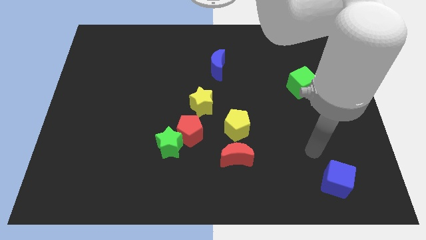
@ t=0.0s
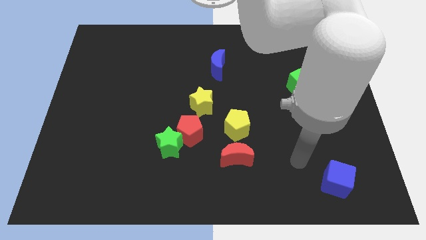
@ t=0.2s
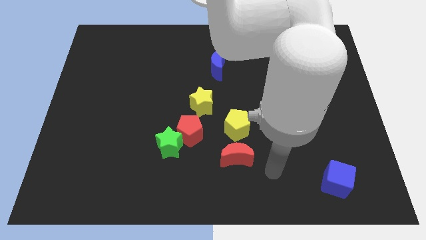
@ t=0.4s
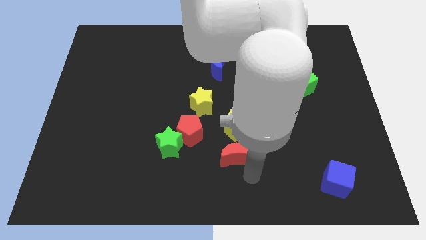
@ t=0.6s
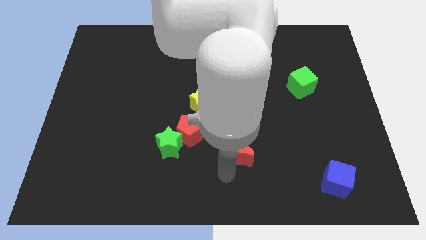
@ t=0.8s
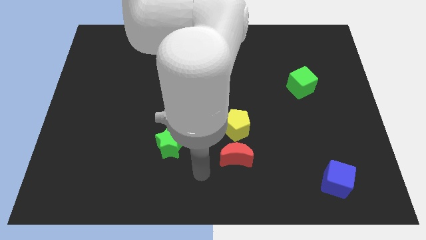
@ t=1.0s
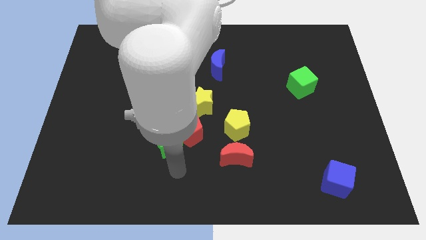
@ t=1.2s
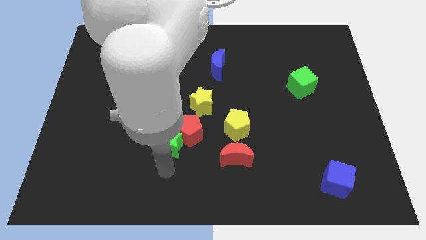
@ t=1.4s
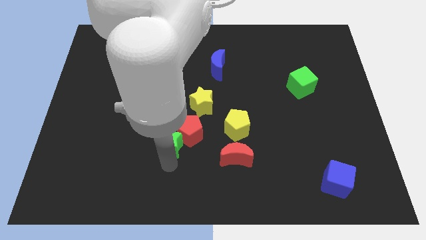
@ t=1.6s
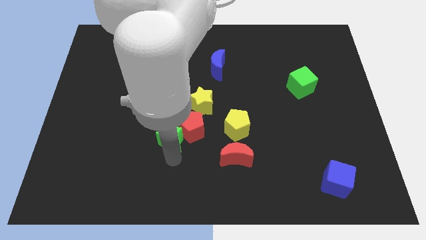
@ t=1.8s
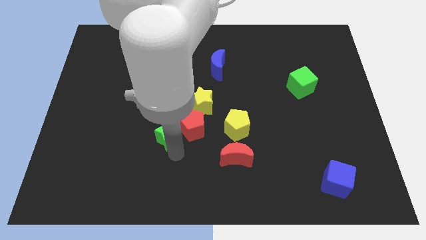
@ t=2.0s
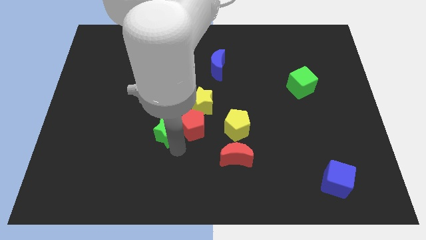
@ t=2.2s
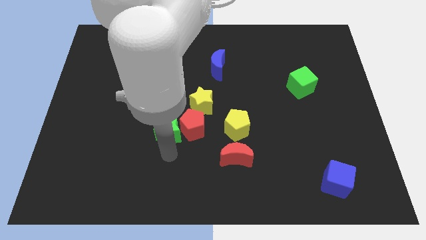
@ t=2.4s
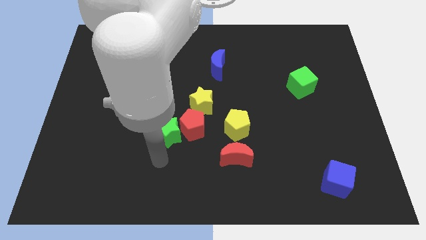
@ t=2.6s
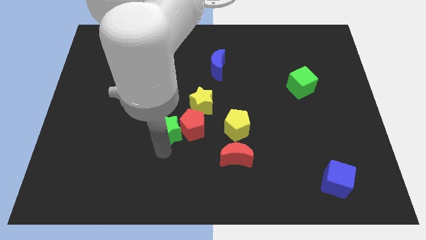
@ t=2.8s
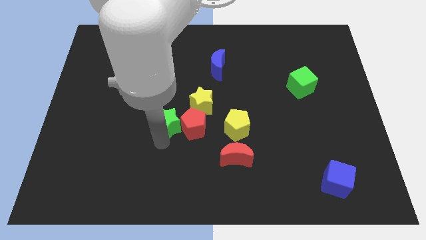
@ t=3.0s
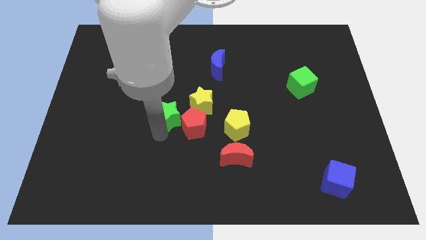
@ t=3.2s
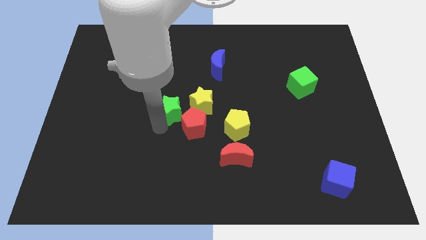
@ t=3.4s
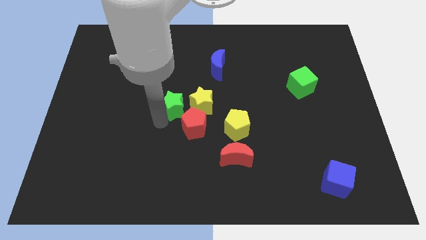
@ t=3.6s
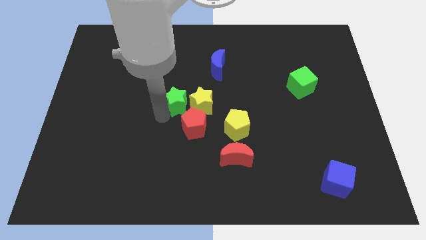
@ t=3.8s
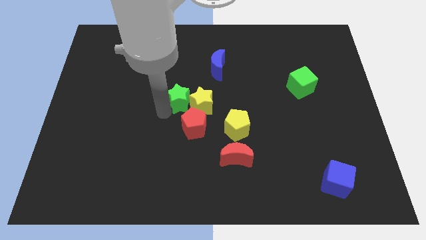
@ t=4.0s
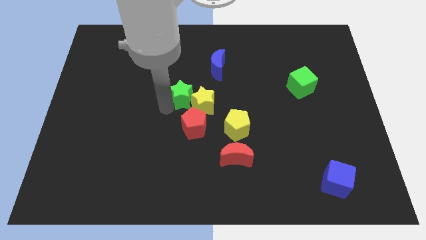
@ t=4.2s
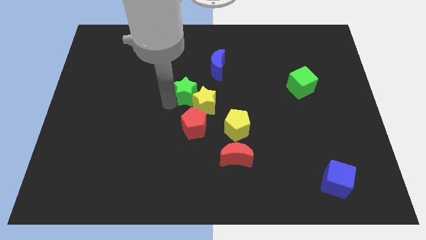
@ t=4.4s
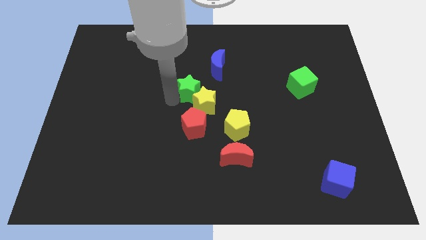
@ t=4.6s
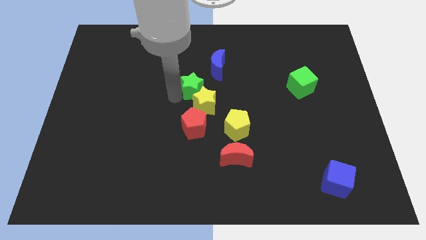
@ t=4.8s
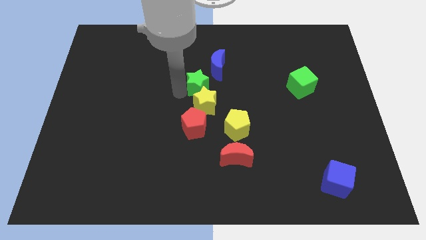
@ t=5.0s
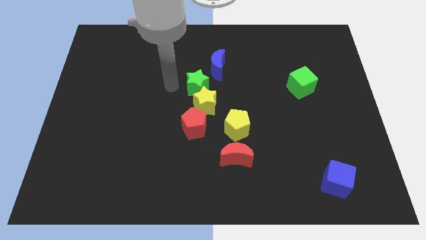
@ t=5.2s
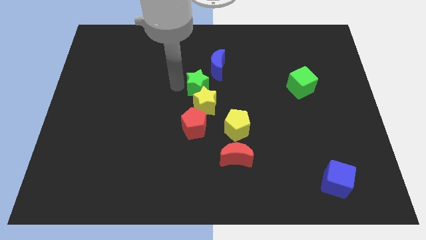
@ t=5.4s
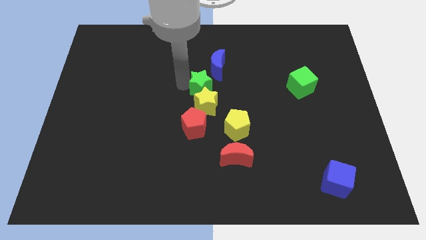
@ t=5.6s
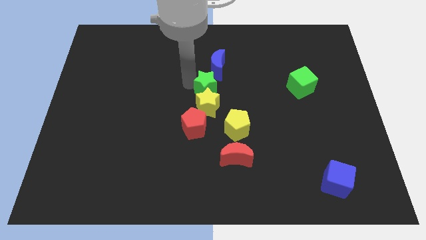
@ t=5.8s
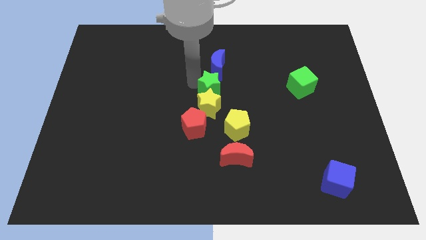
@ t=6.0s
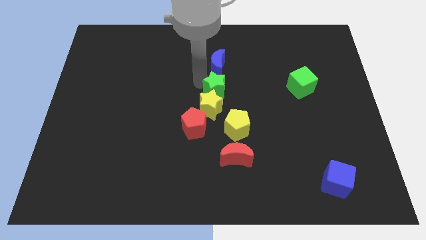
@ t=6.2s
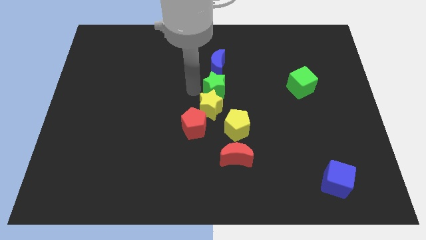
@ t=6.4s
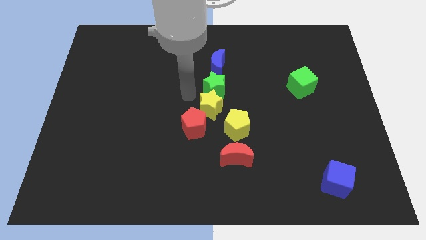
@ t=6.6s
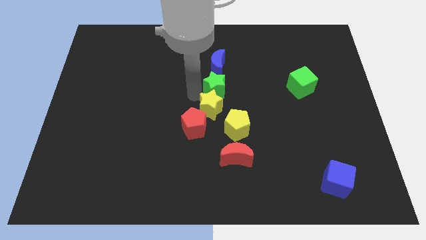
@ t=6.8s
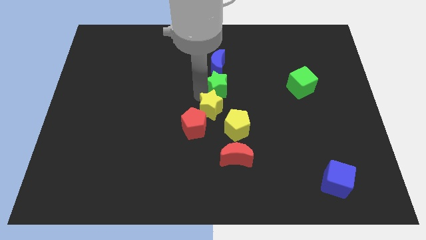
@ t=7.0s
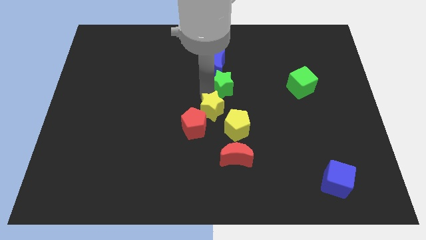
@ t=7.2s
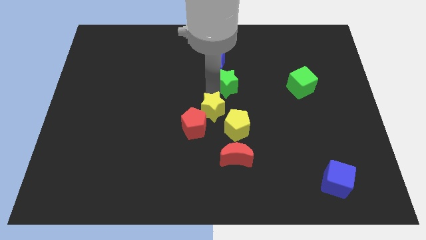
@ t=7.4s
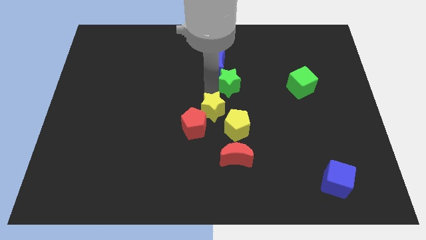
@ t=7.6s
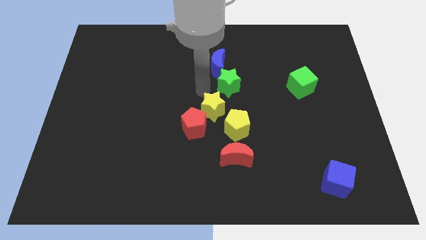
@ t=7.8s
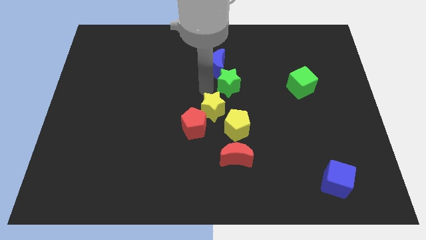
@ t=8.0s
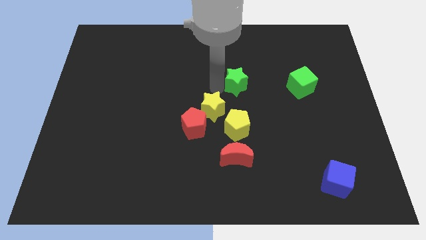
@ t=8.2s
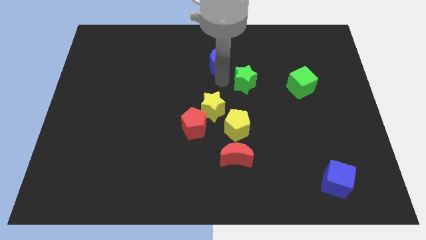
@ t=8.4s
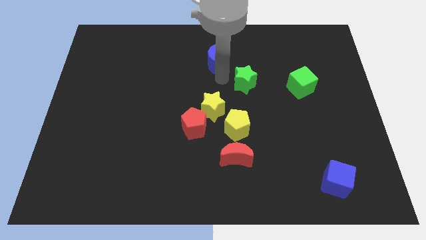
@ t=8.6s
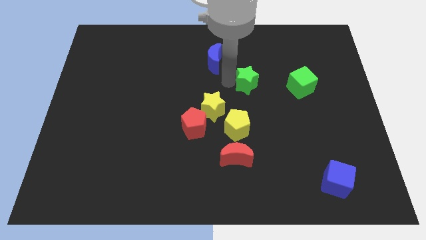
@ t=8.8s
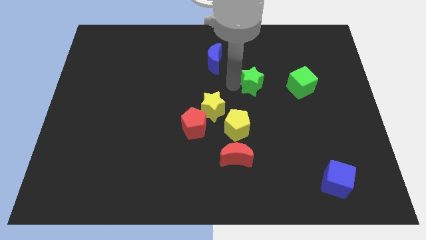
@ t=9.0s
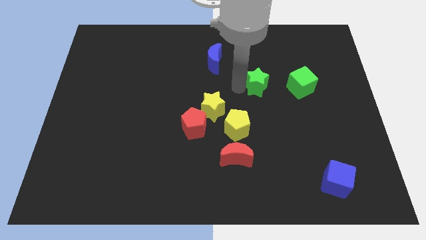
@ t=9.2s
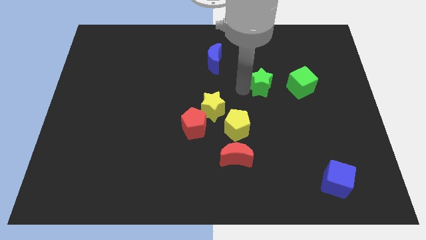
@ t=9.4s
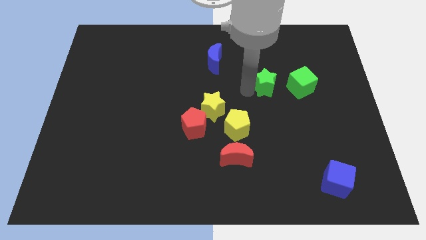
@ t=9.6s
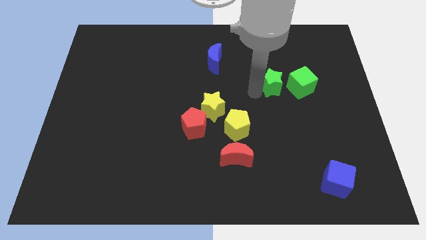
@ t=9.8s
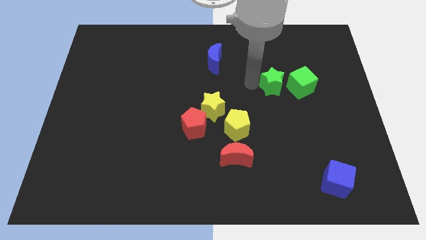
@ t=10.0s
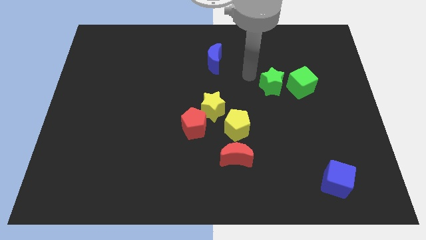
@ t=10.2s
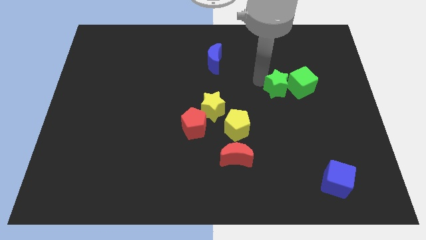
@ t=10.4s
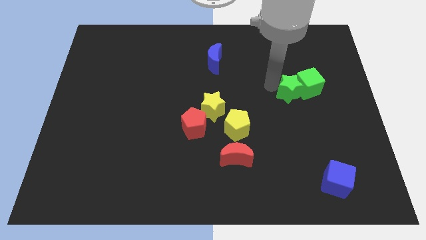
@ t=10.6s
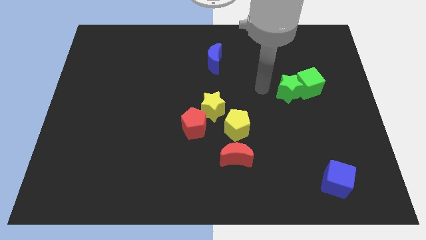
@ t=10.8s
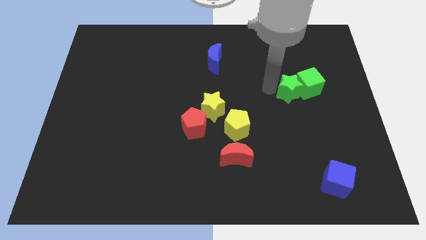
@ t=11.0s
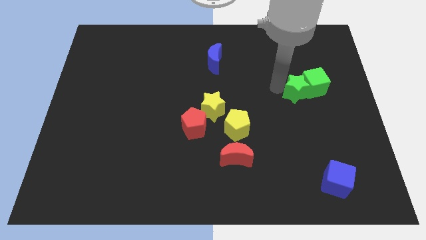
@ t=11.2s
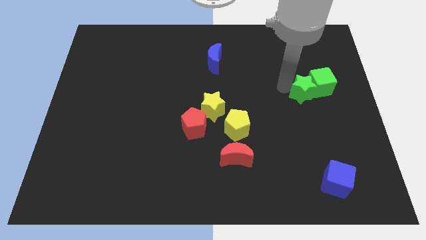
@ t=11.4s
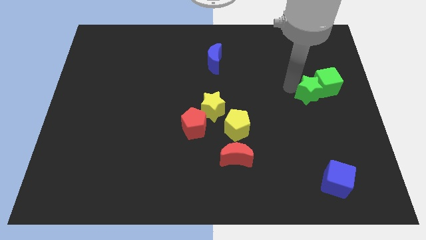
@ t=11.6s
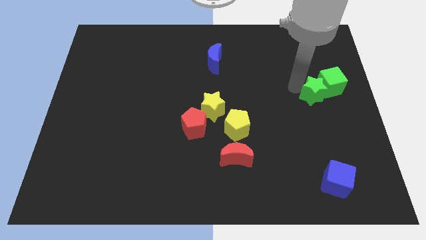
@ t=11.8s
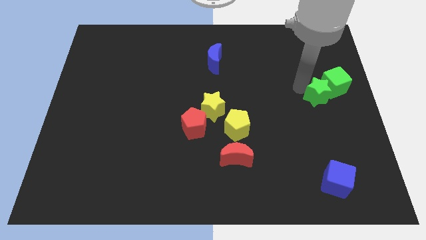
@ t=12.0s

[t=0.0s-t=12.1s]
move the green star to the right side
